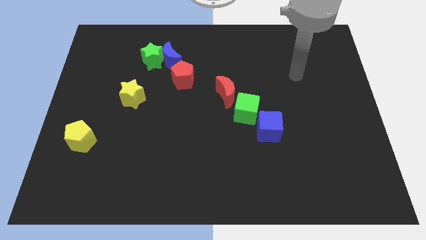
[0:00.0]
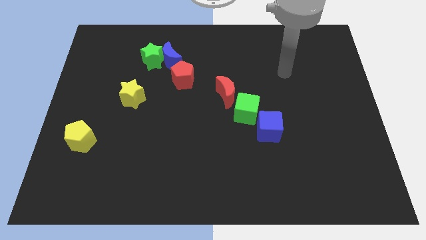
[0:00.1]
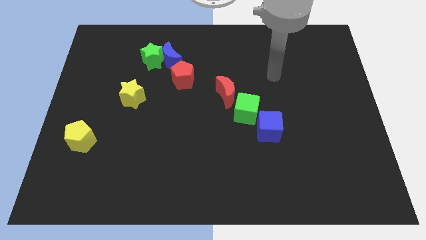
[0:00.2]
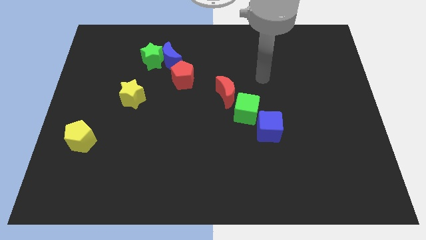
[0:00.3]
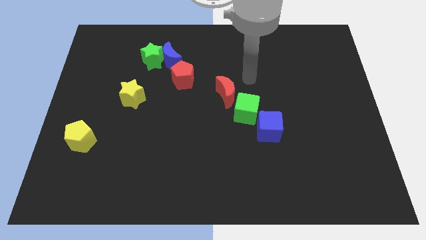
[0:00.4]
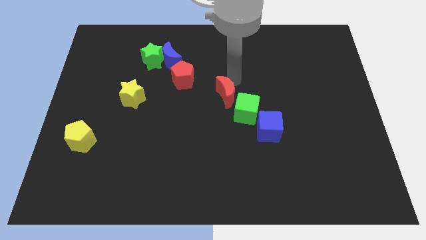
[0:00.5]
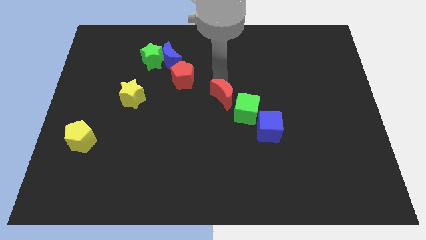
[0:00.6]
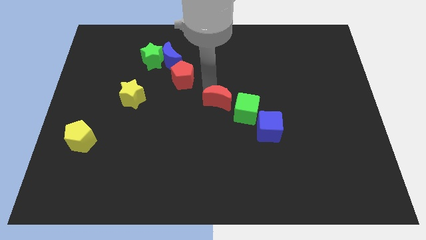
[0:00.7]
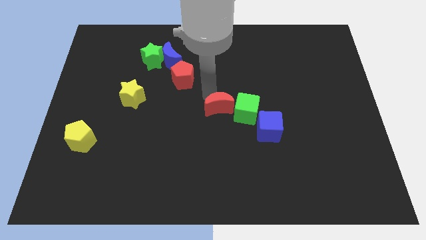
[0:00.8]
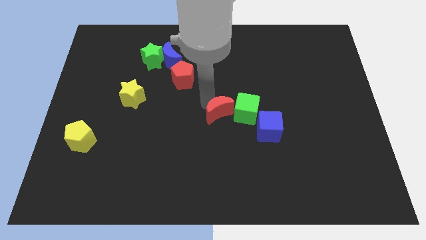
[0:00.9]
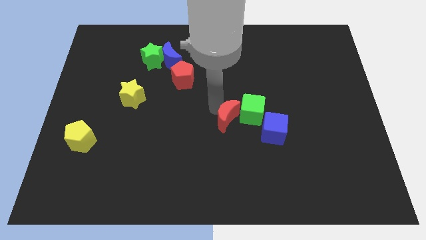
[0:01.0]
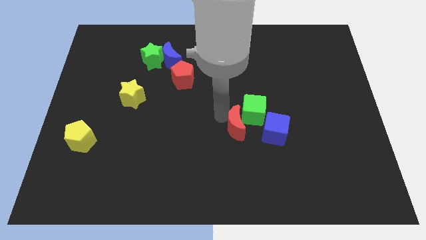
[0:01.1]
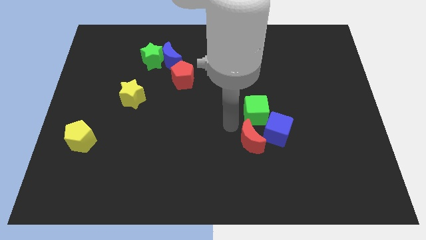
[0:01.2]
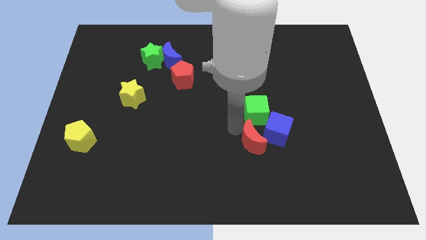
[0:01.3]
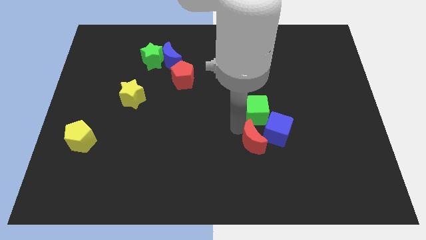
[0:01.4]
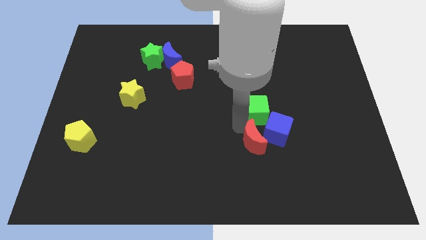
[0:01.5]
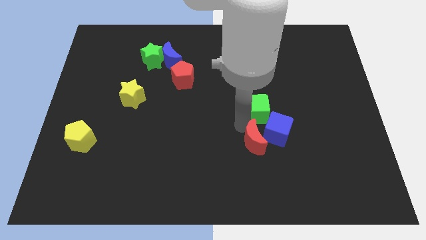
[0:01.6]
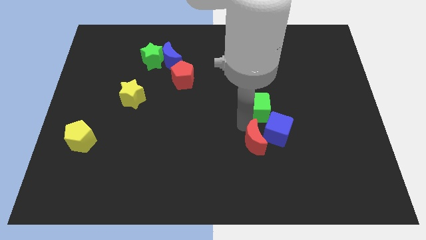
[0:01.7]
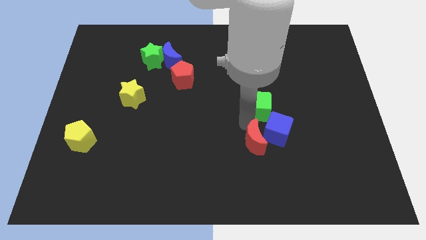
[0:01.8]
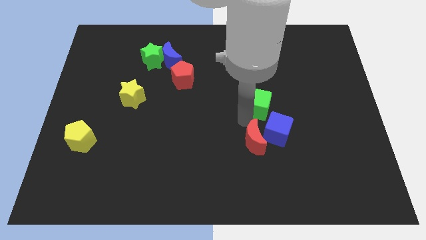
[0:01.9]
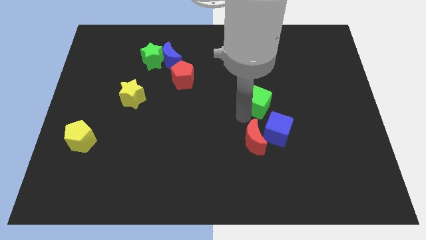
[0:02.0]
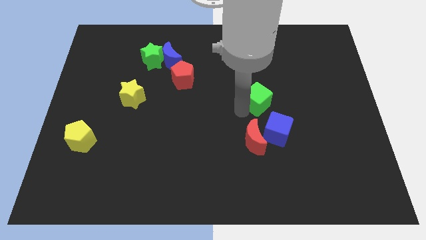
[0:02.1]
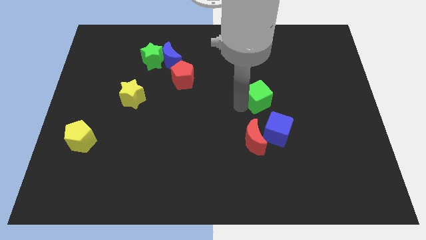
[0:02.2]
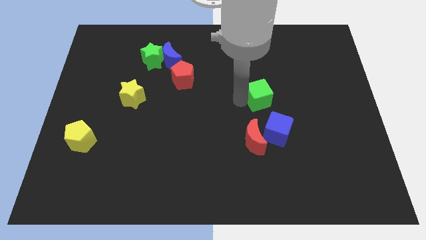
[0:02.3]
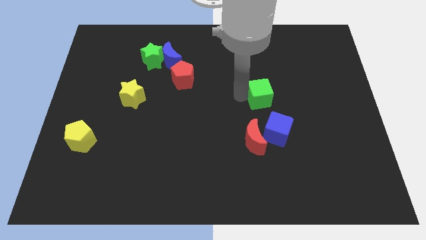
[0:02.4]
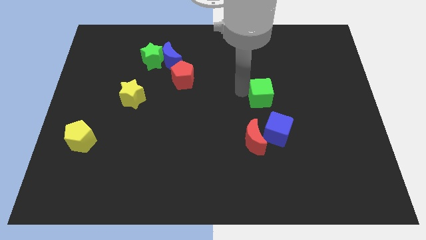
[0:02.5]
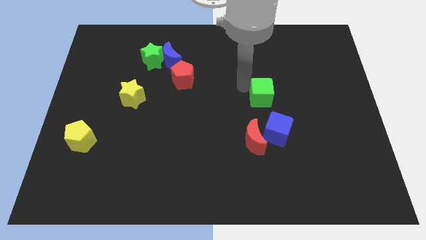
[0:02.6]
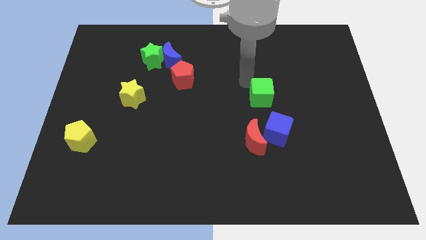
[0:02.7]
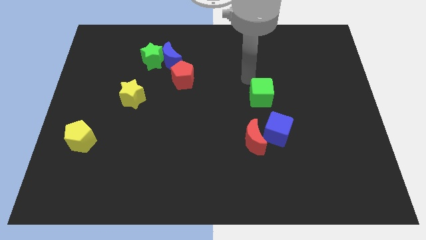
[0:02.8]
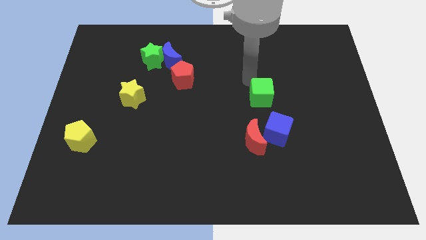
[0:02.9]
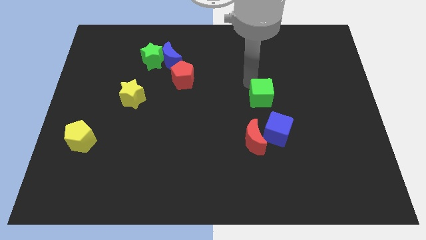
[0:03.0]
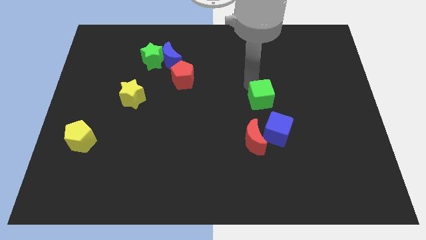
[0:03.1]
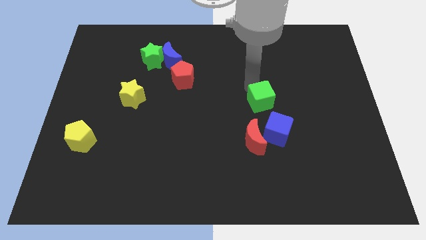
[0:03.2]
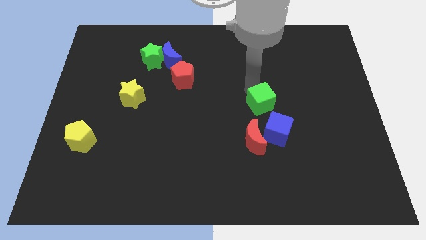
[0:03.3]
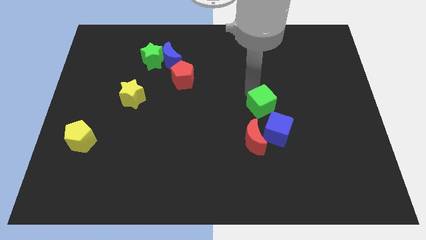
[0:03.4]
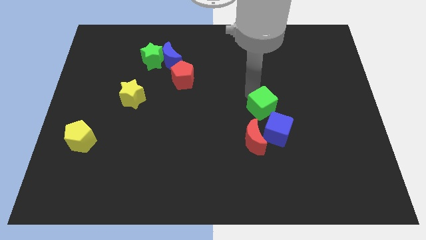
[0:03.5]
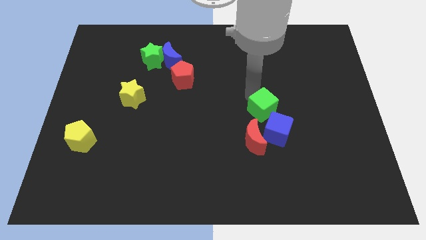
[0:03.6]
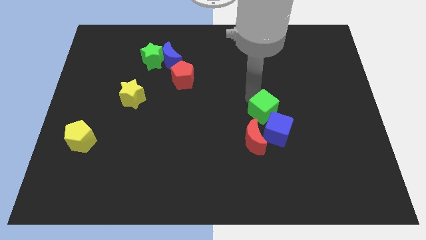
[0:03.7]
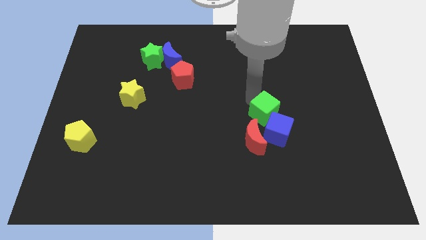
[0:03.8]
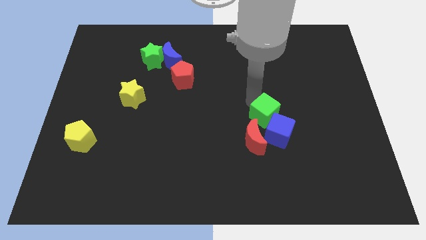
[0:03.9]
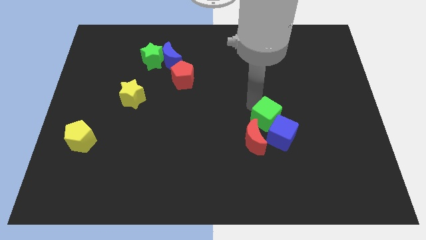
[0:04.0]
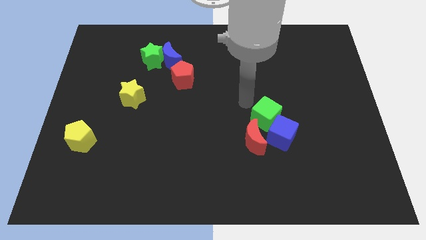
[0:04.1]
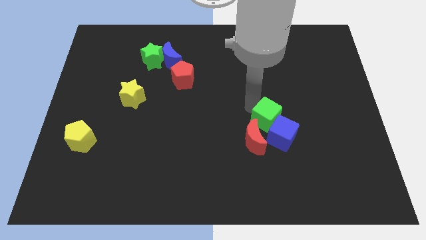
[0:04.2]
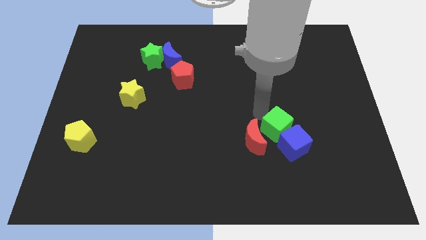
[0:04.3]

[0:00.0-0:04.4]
move the green cube downwards and then right a bit

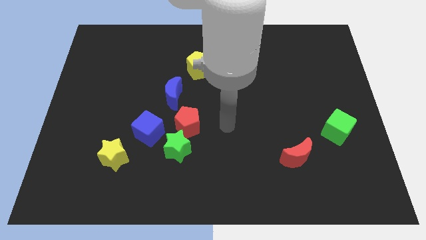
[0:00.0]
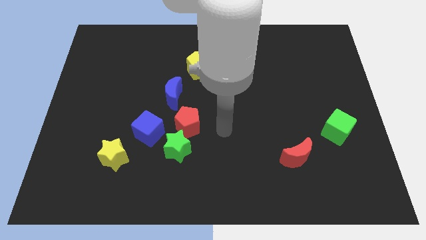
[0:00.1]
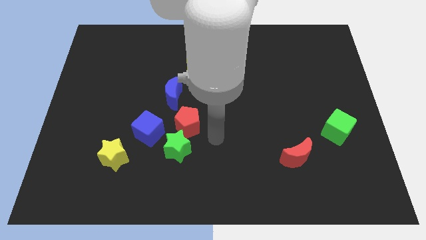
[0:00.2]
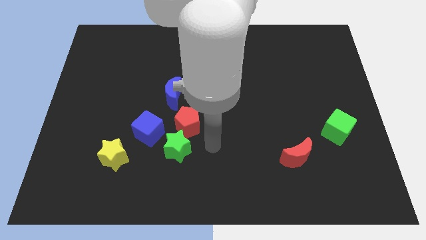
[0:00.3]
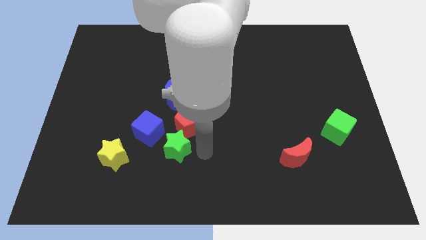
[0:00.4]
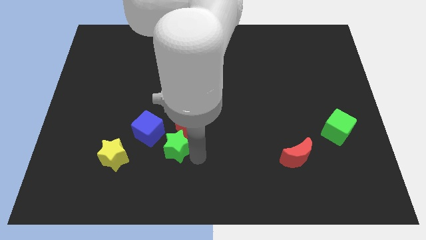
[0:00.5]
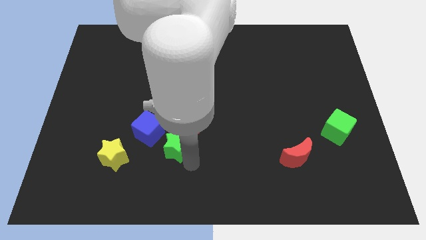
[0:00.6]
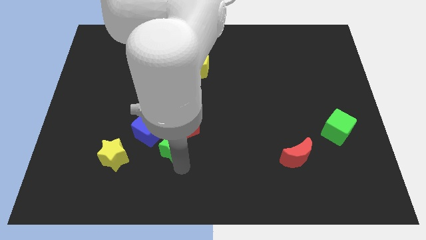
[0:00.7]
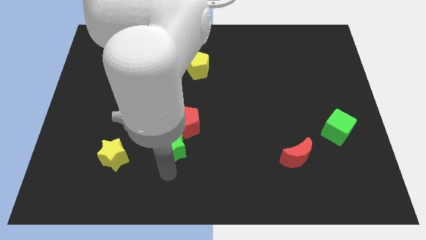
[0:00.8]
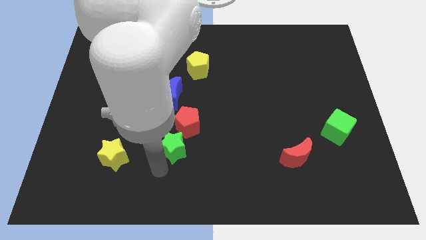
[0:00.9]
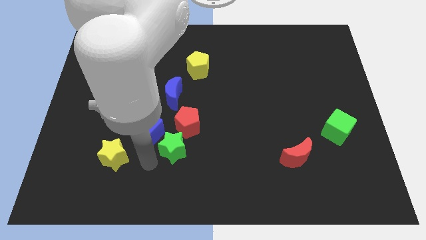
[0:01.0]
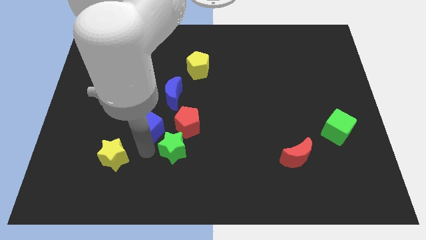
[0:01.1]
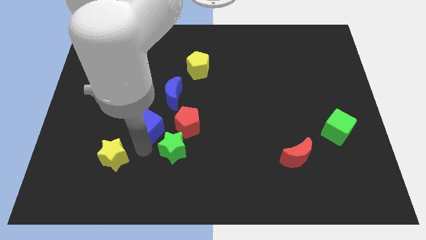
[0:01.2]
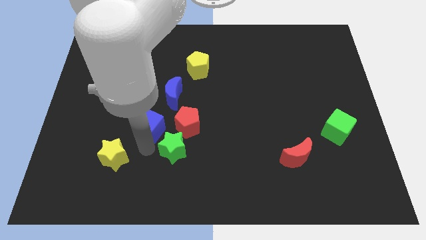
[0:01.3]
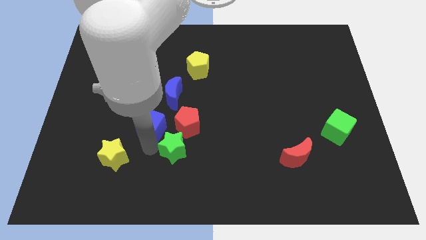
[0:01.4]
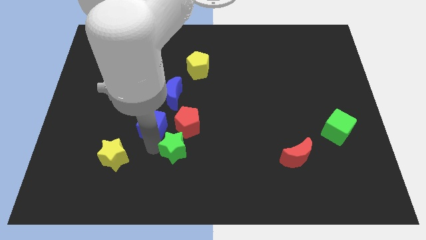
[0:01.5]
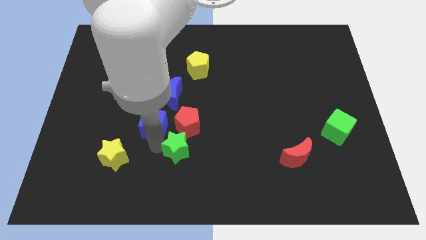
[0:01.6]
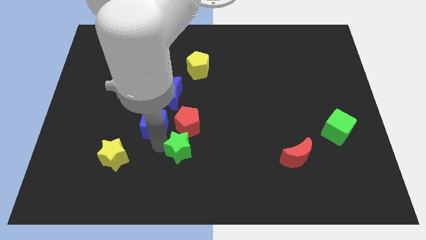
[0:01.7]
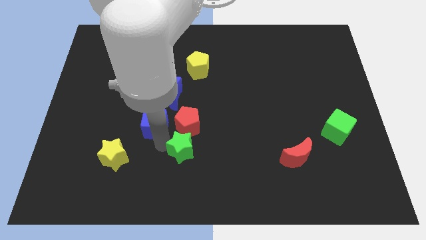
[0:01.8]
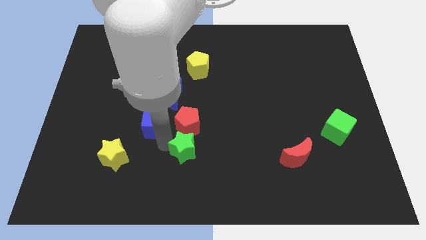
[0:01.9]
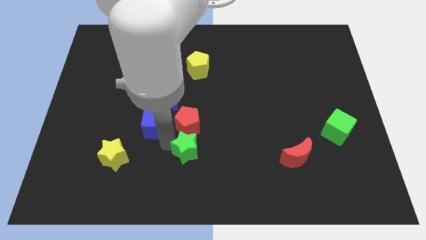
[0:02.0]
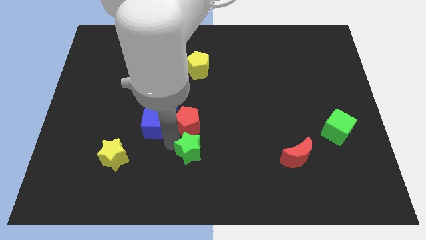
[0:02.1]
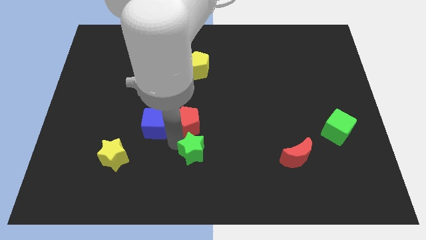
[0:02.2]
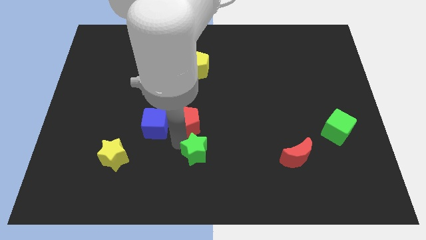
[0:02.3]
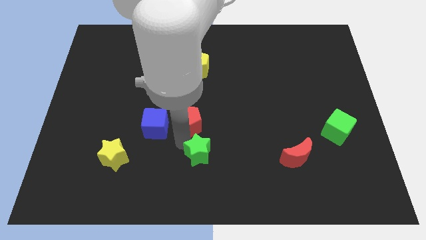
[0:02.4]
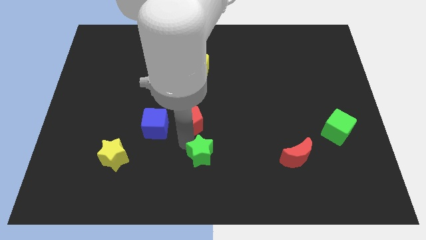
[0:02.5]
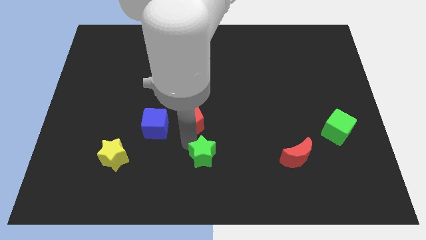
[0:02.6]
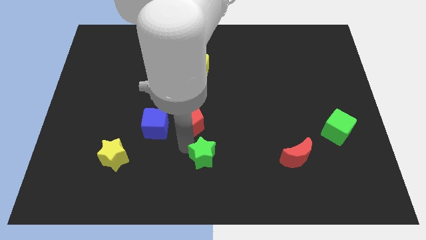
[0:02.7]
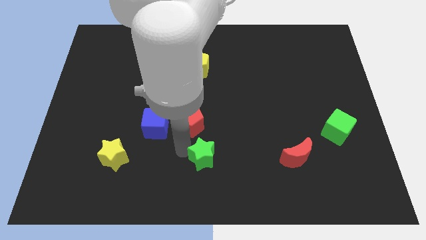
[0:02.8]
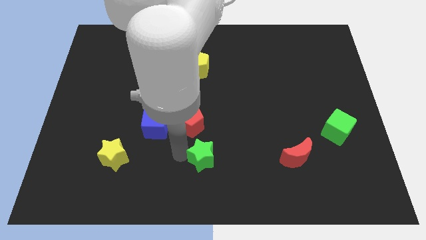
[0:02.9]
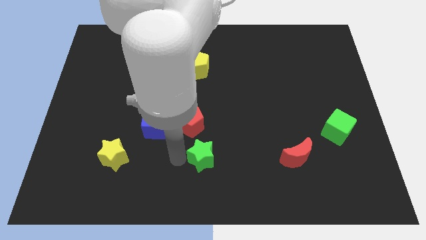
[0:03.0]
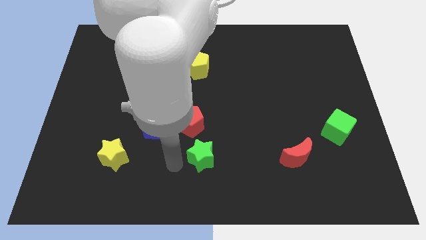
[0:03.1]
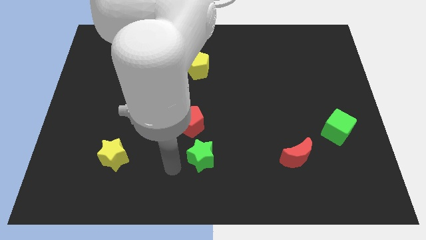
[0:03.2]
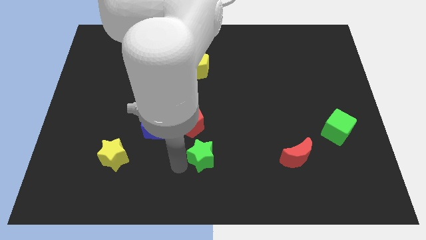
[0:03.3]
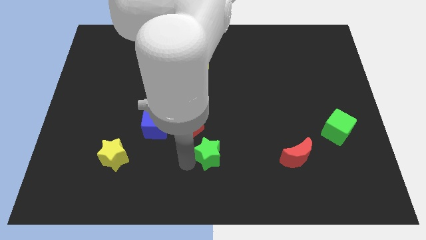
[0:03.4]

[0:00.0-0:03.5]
slightly slide the green star to the right
